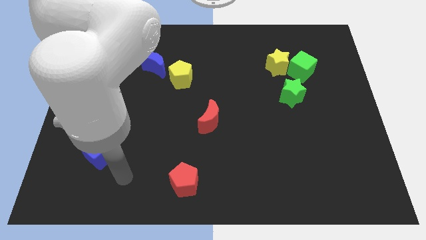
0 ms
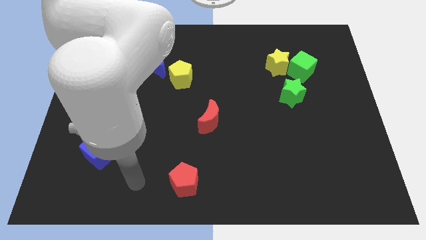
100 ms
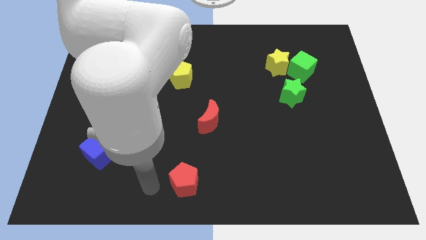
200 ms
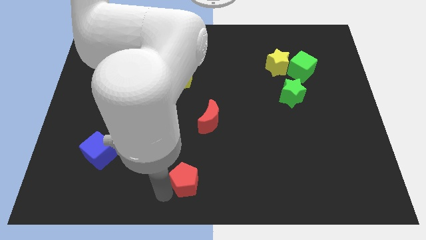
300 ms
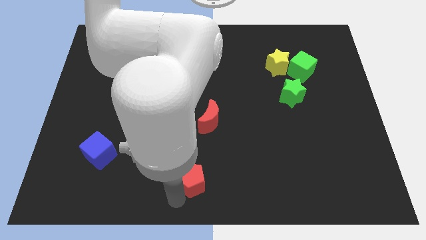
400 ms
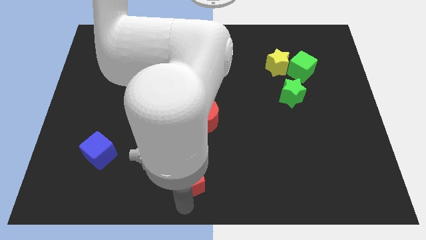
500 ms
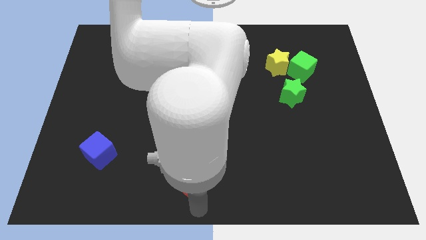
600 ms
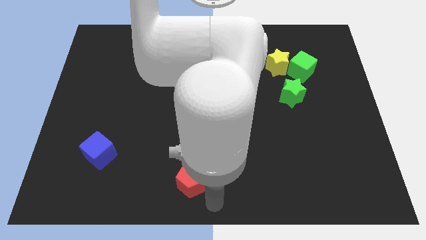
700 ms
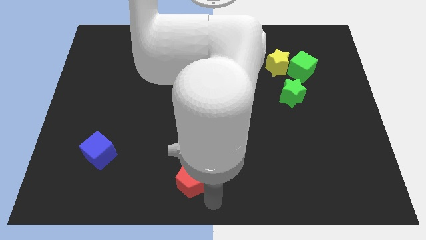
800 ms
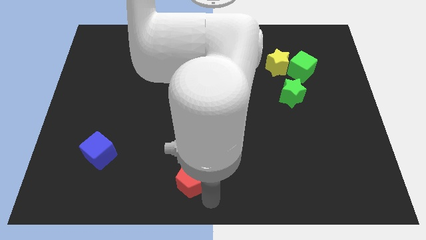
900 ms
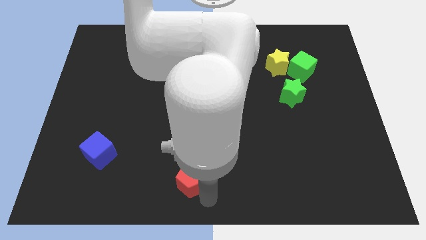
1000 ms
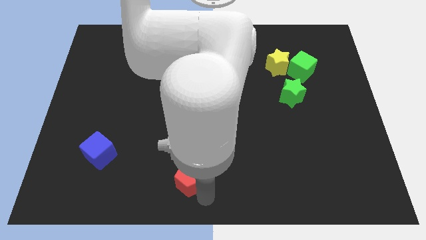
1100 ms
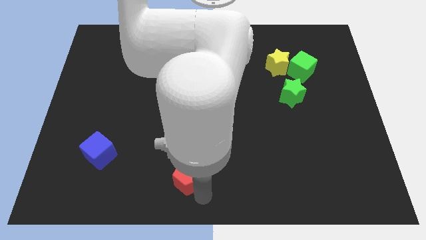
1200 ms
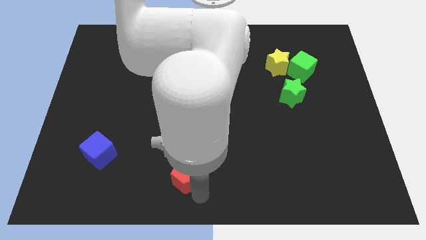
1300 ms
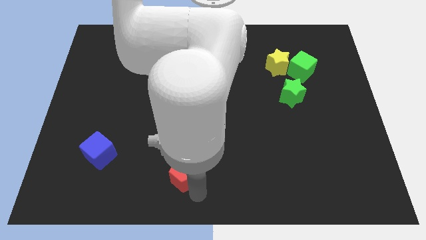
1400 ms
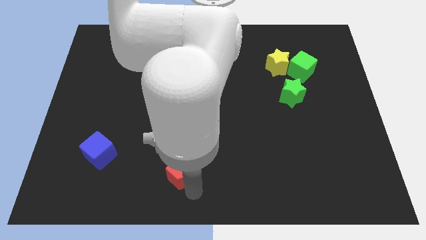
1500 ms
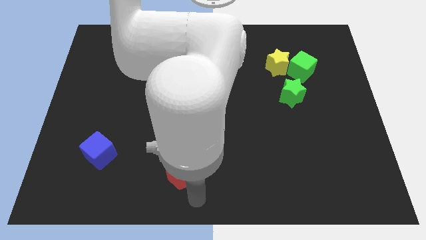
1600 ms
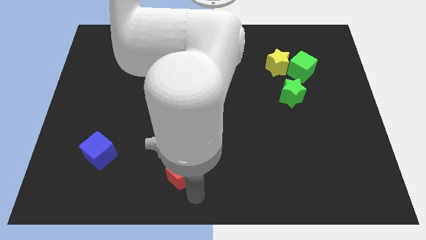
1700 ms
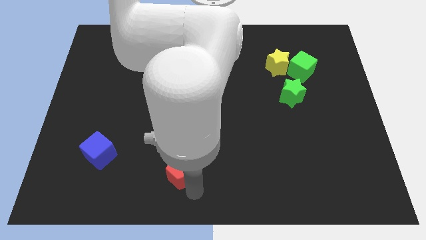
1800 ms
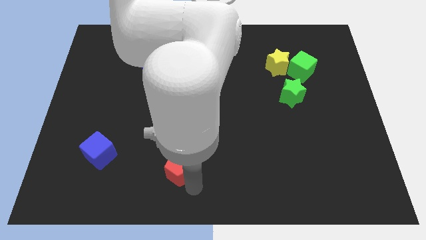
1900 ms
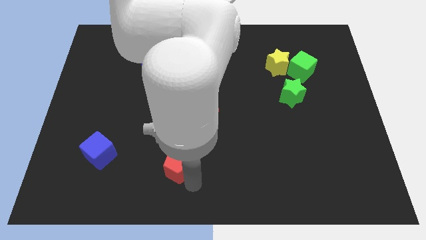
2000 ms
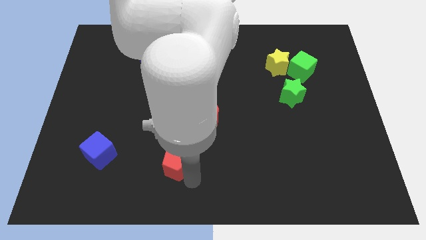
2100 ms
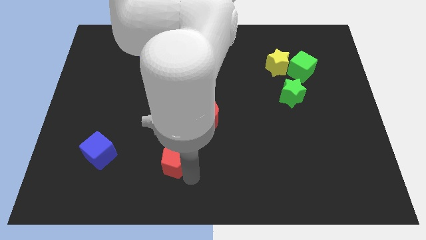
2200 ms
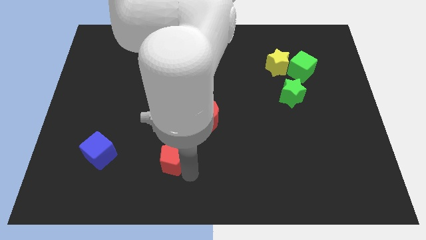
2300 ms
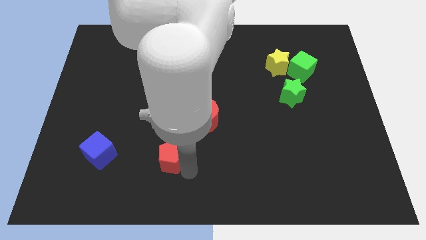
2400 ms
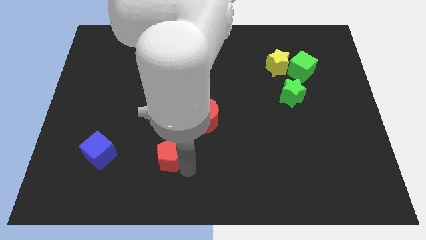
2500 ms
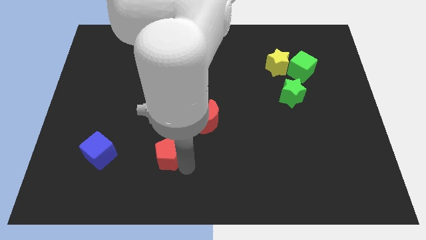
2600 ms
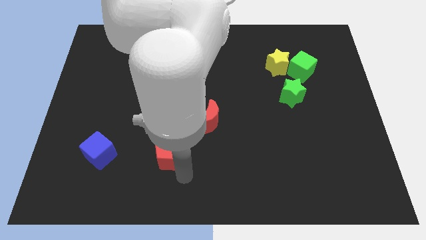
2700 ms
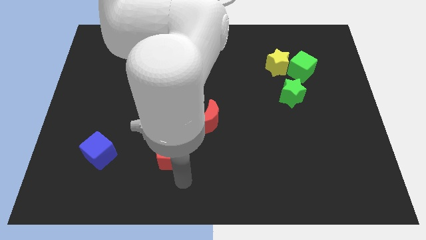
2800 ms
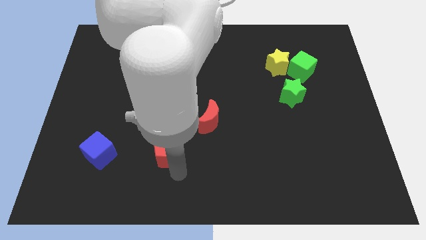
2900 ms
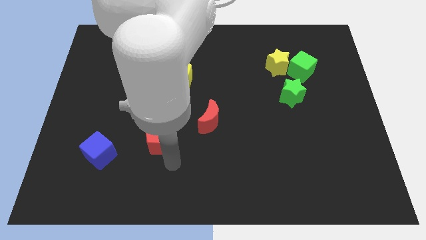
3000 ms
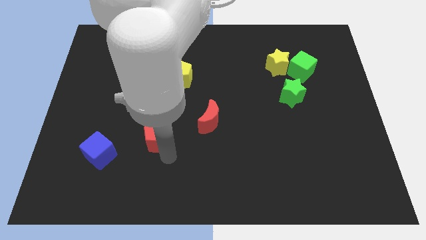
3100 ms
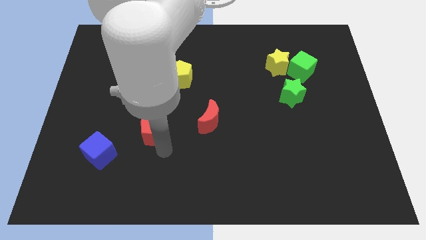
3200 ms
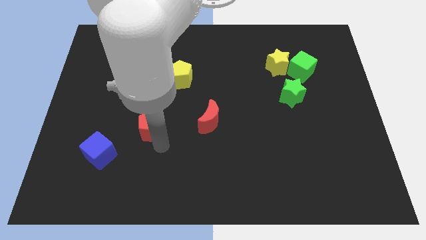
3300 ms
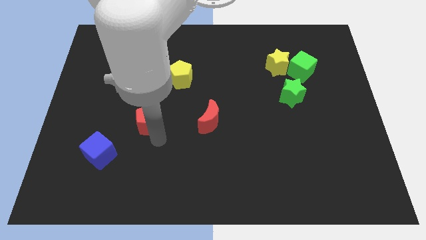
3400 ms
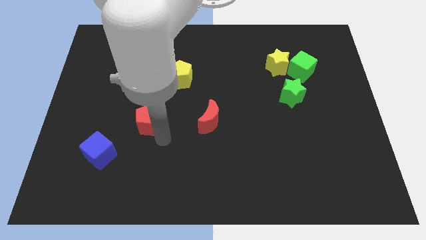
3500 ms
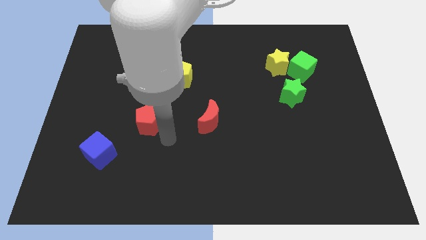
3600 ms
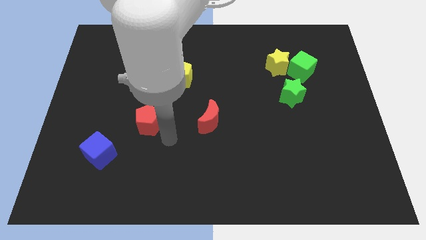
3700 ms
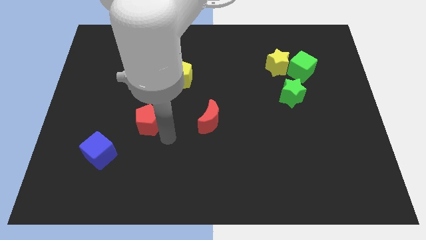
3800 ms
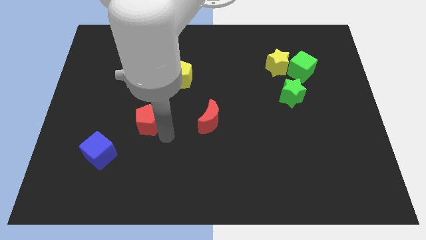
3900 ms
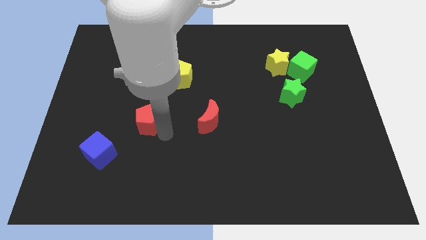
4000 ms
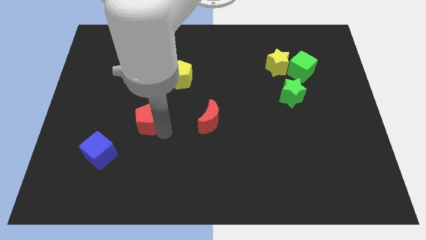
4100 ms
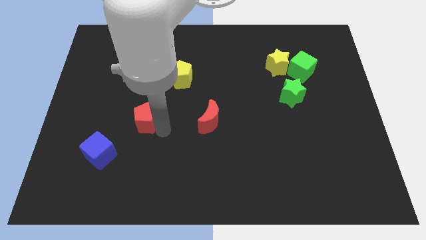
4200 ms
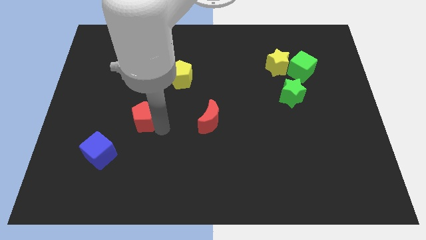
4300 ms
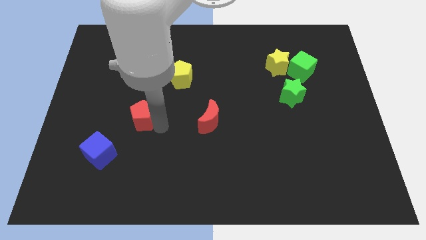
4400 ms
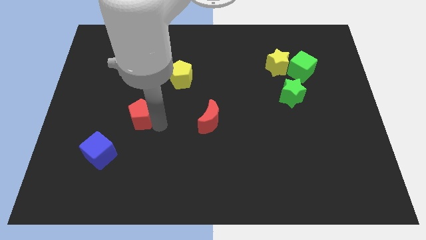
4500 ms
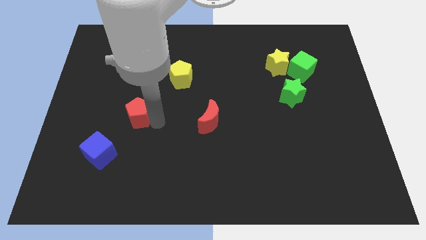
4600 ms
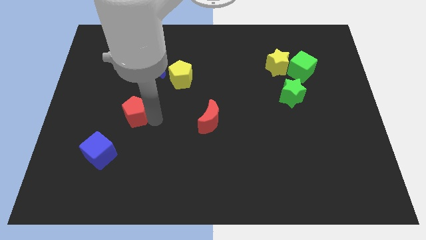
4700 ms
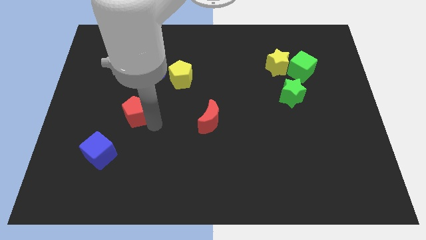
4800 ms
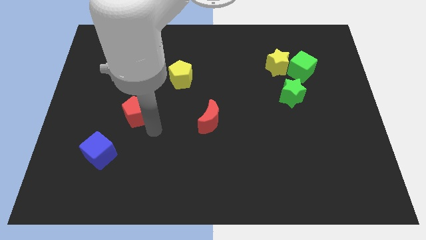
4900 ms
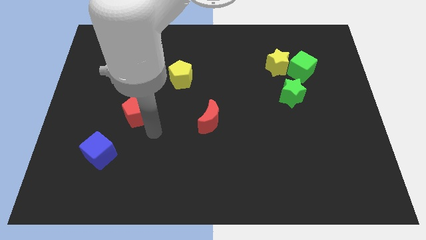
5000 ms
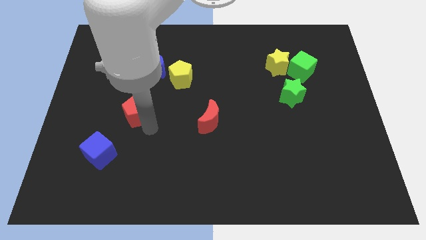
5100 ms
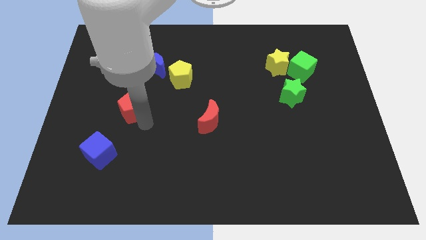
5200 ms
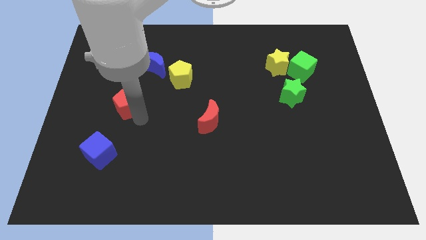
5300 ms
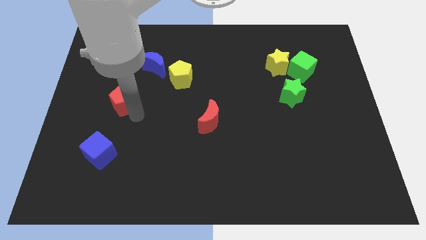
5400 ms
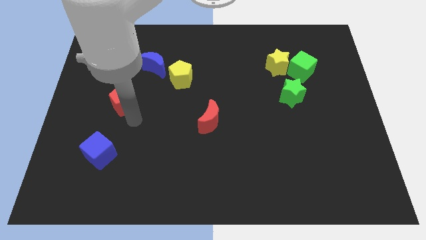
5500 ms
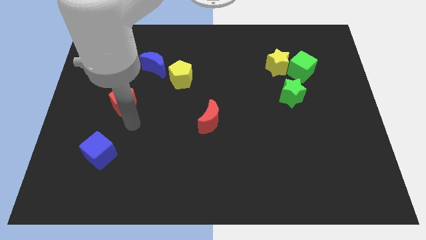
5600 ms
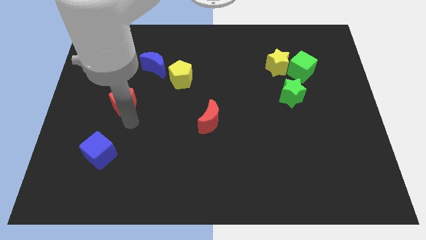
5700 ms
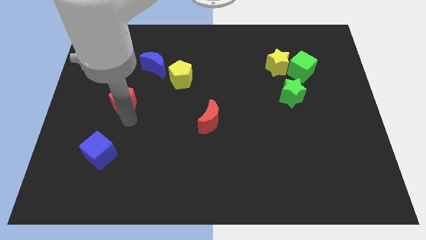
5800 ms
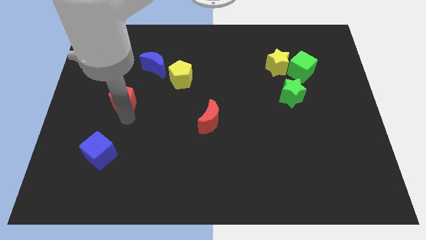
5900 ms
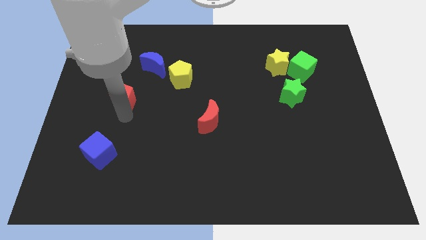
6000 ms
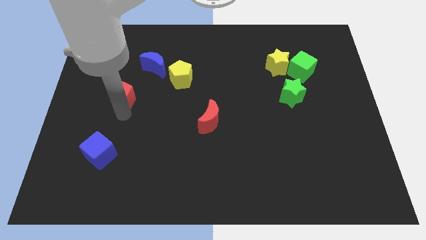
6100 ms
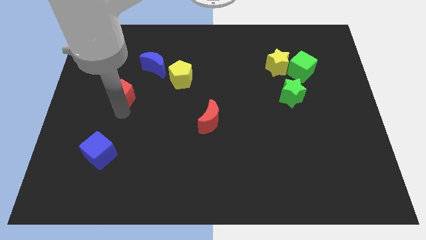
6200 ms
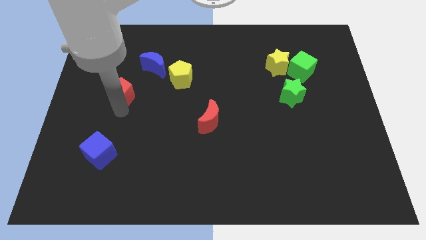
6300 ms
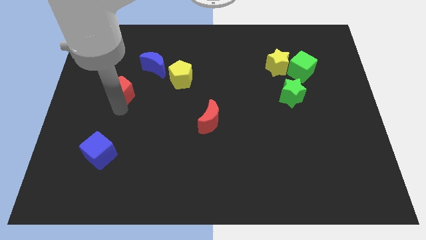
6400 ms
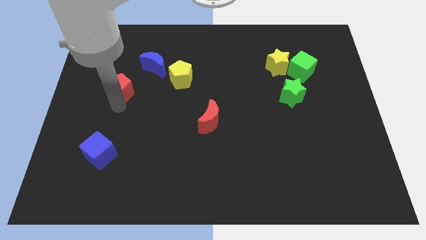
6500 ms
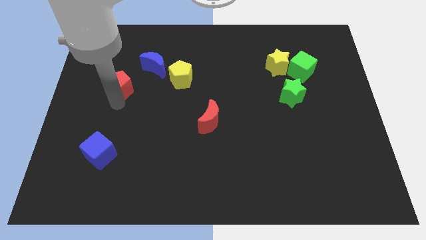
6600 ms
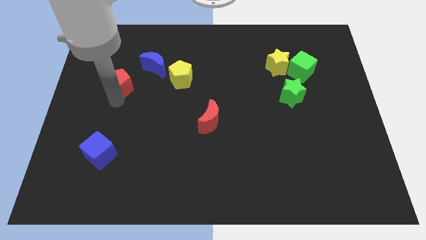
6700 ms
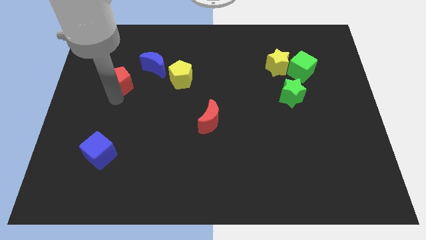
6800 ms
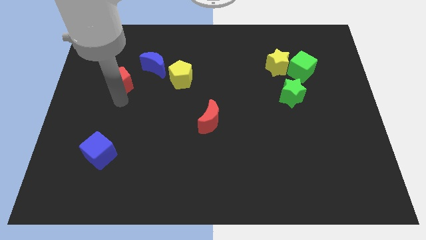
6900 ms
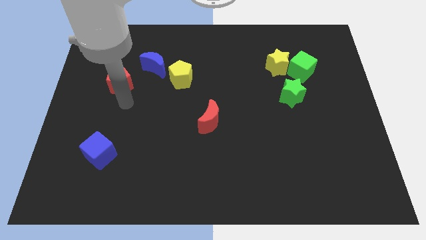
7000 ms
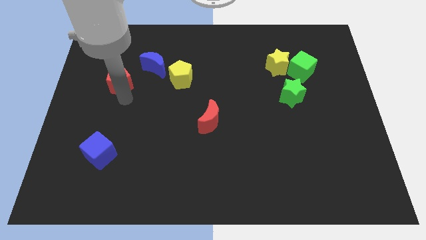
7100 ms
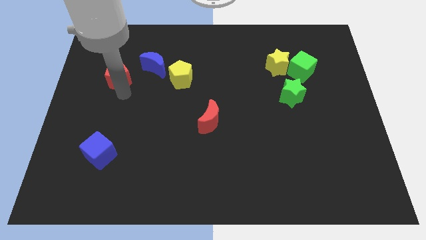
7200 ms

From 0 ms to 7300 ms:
move the red pentagon to the left of the blue moon
